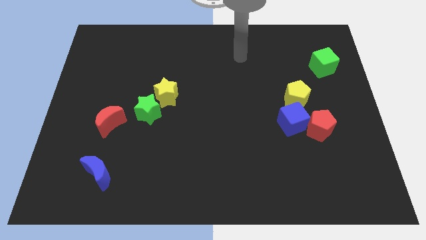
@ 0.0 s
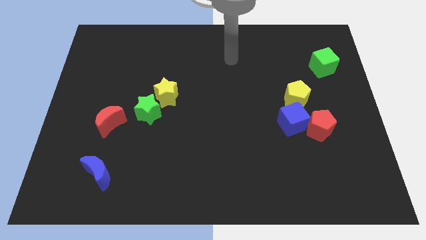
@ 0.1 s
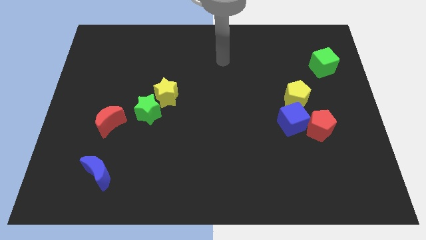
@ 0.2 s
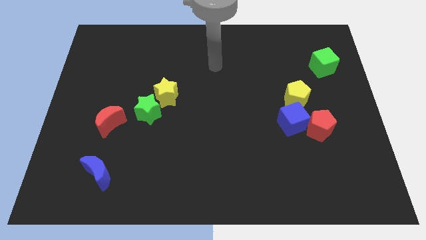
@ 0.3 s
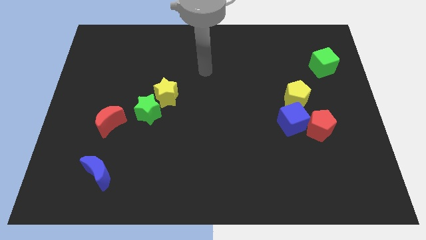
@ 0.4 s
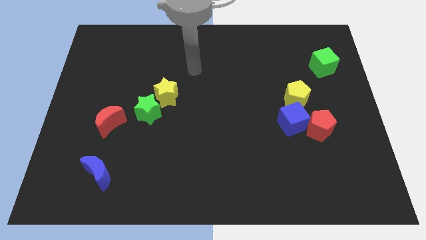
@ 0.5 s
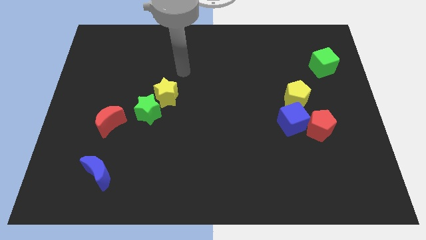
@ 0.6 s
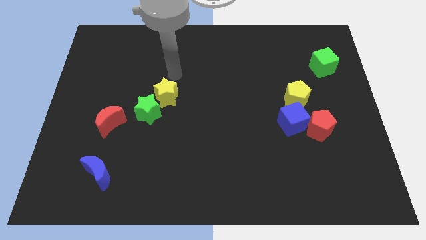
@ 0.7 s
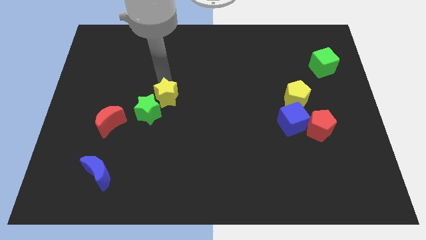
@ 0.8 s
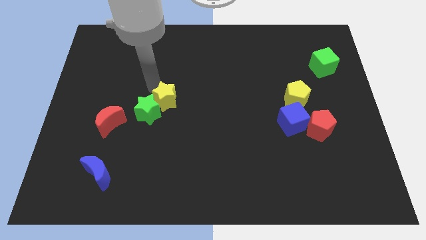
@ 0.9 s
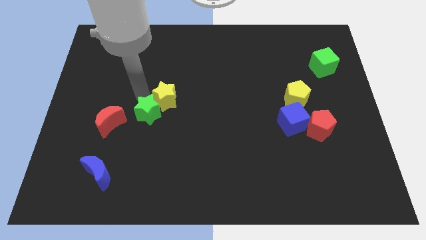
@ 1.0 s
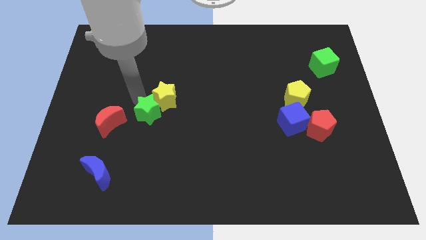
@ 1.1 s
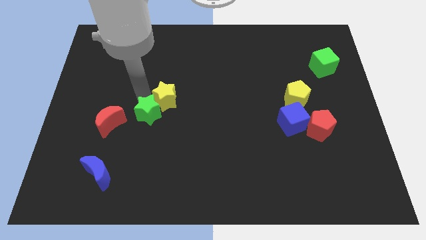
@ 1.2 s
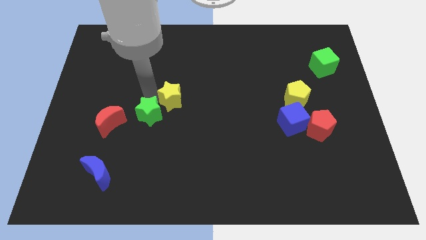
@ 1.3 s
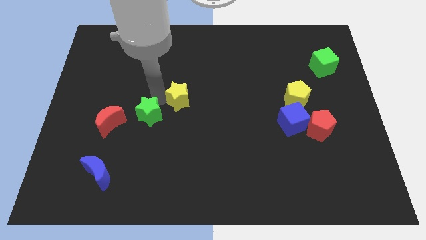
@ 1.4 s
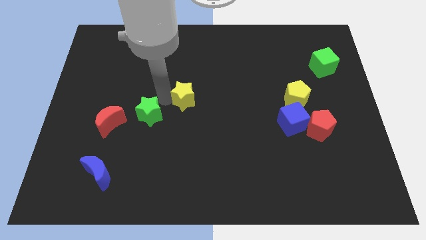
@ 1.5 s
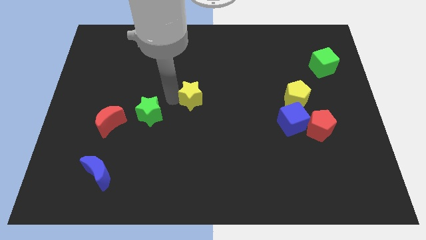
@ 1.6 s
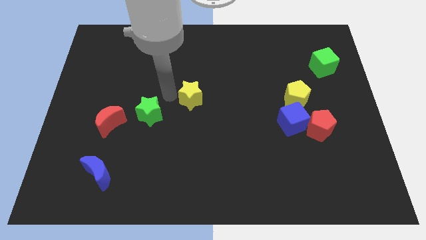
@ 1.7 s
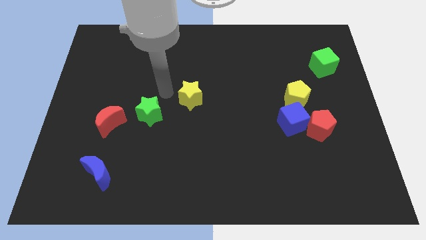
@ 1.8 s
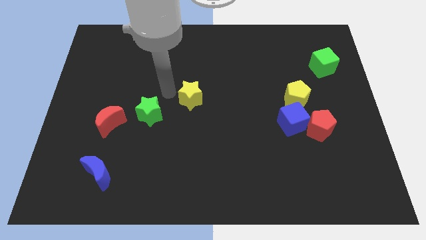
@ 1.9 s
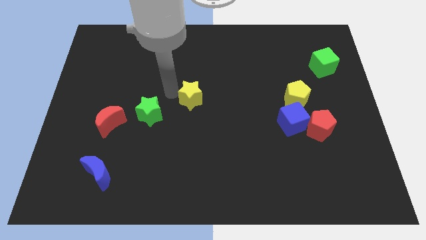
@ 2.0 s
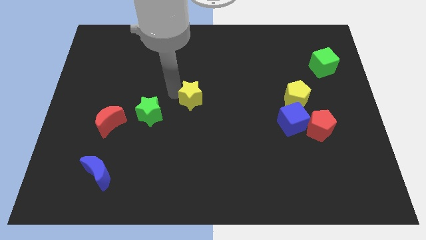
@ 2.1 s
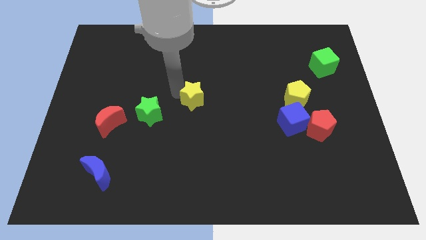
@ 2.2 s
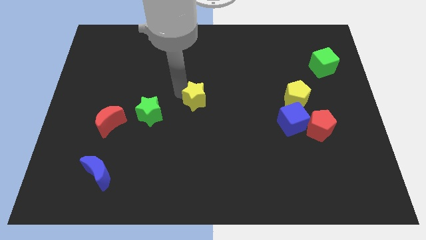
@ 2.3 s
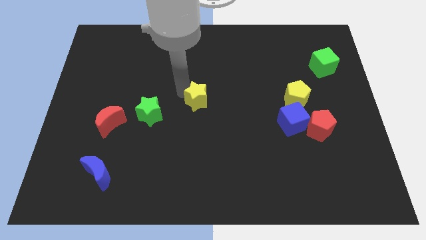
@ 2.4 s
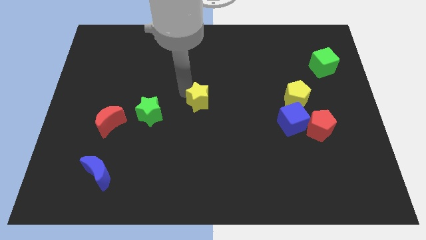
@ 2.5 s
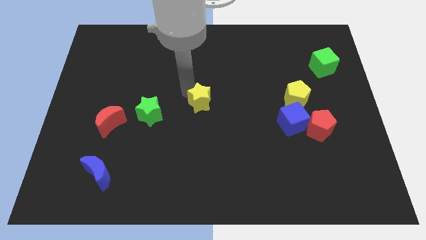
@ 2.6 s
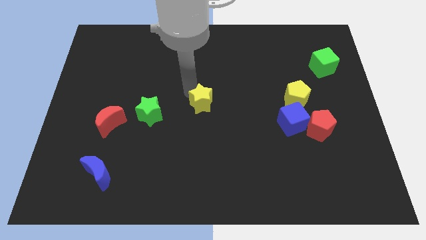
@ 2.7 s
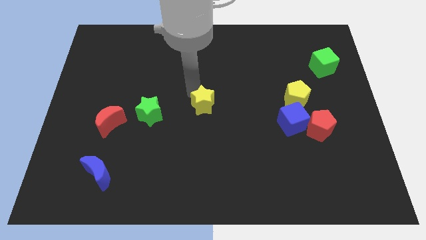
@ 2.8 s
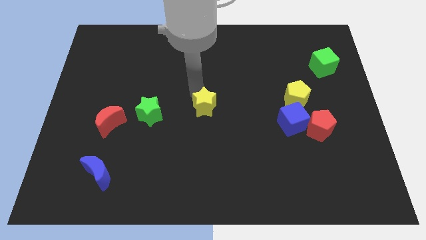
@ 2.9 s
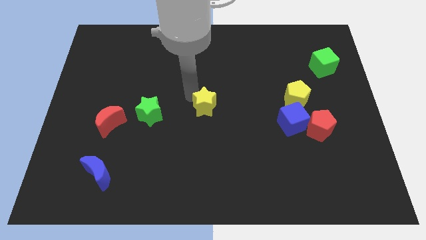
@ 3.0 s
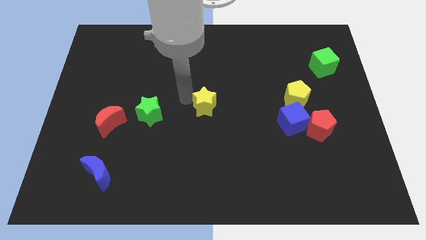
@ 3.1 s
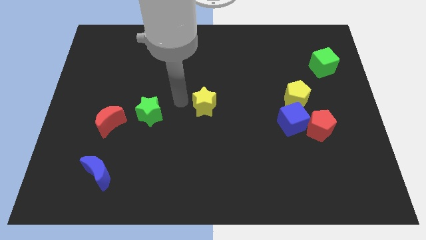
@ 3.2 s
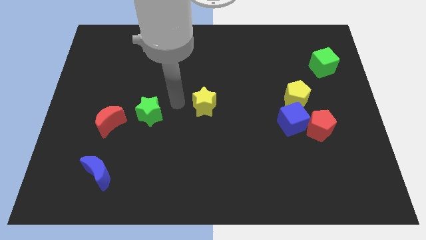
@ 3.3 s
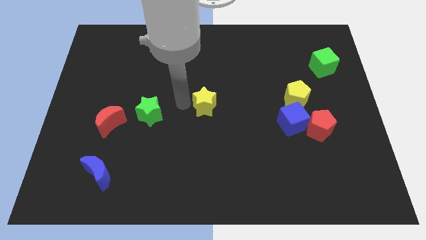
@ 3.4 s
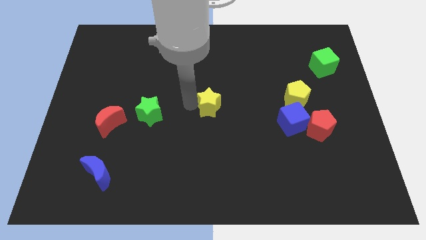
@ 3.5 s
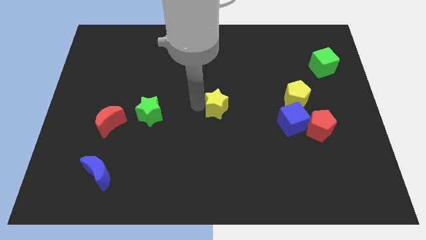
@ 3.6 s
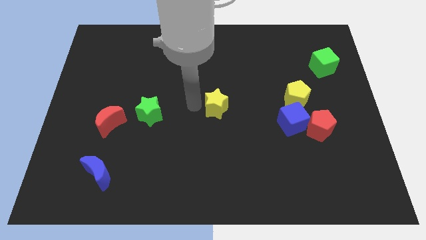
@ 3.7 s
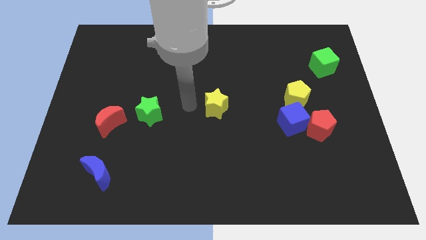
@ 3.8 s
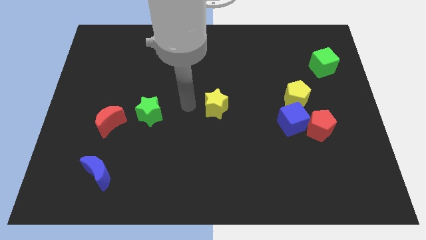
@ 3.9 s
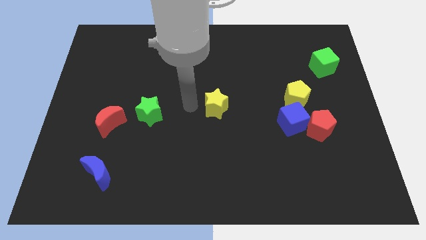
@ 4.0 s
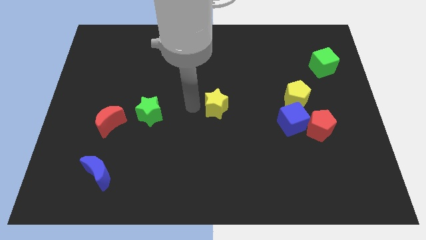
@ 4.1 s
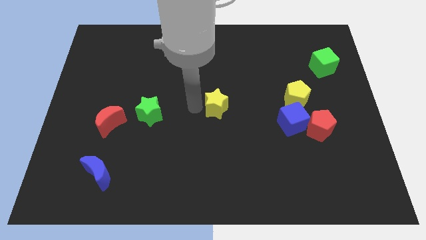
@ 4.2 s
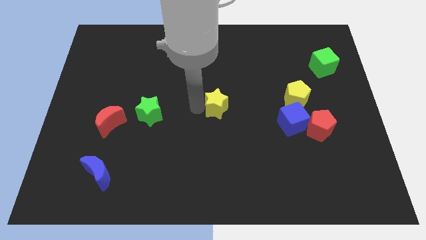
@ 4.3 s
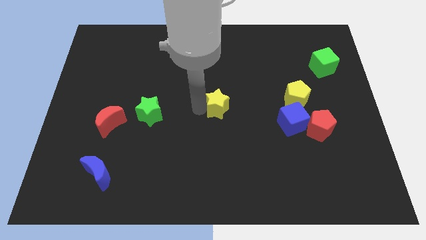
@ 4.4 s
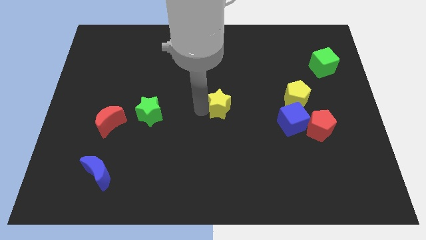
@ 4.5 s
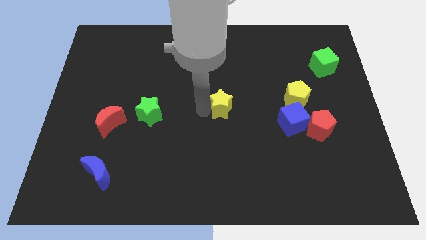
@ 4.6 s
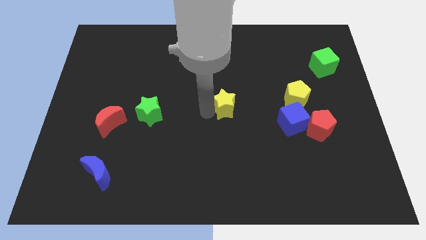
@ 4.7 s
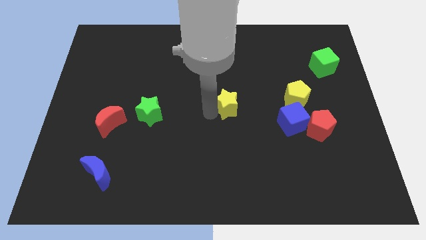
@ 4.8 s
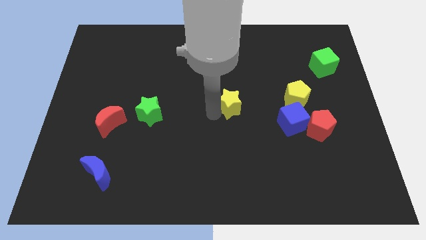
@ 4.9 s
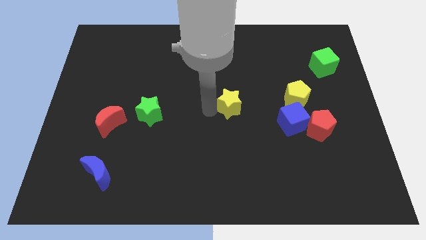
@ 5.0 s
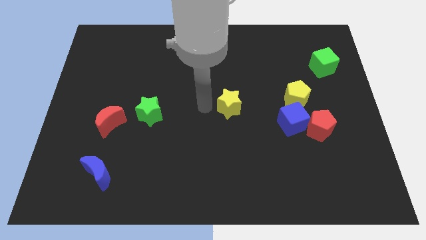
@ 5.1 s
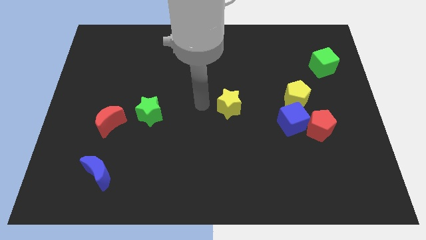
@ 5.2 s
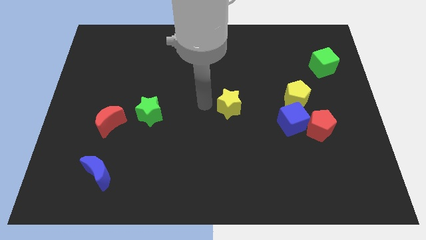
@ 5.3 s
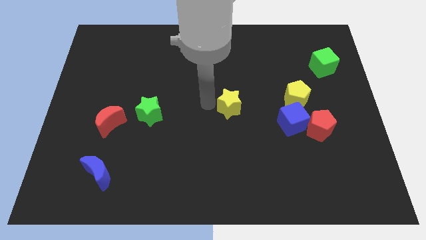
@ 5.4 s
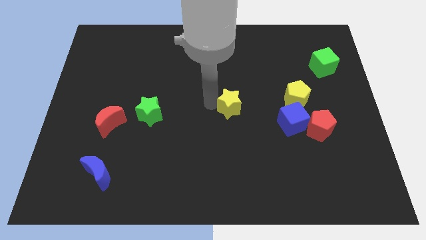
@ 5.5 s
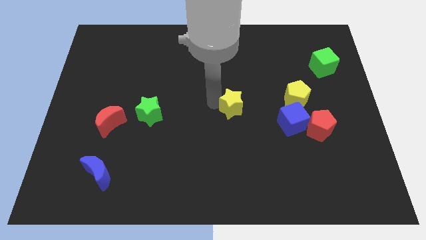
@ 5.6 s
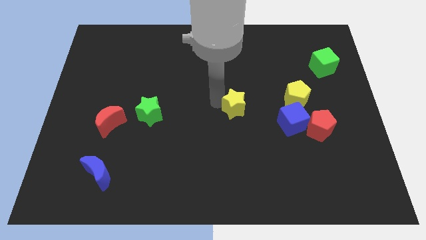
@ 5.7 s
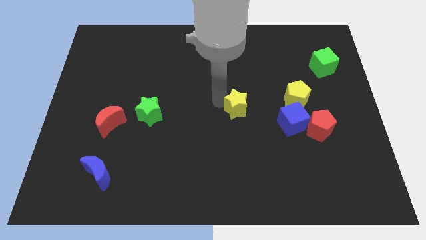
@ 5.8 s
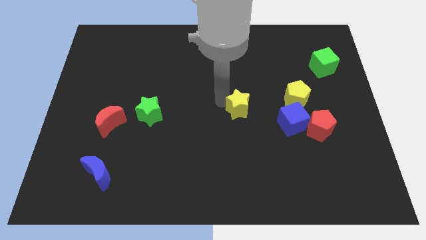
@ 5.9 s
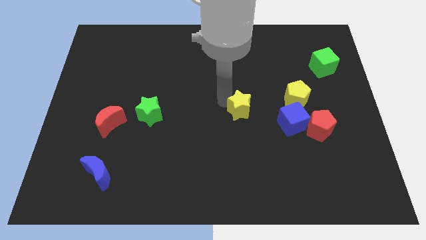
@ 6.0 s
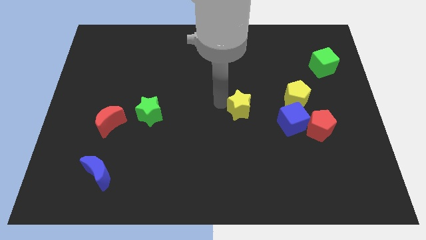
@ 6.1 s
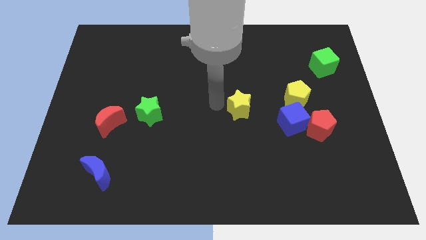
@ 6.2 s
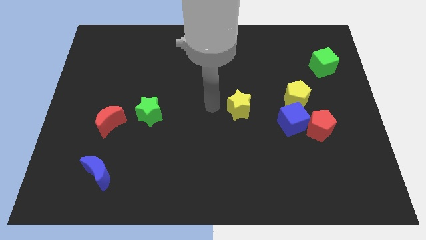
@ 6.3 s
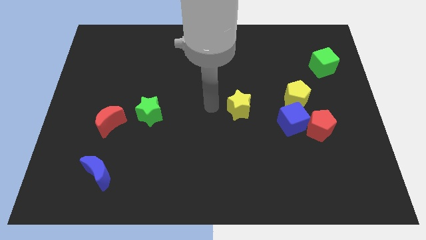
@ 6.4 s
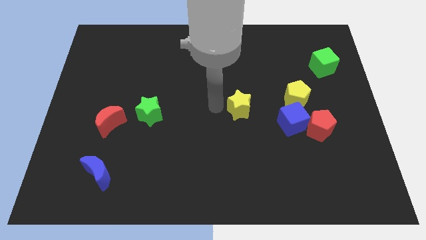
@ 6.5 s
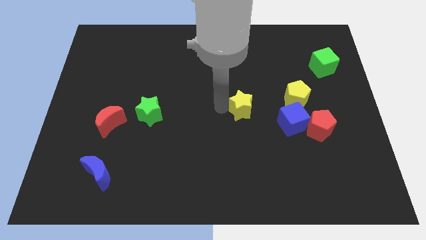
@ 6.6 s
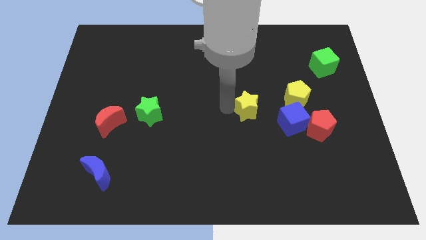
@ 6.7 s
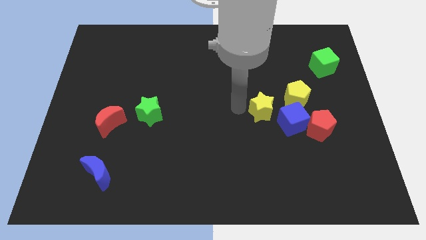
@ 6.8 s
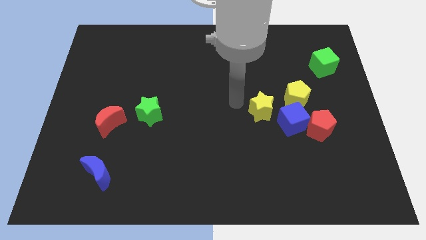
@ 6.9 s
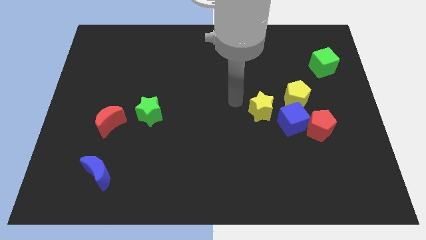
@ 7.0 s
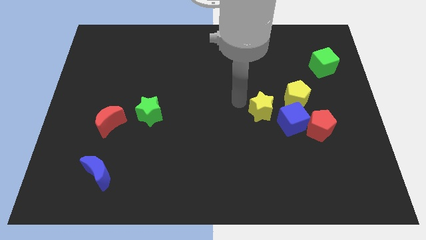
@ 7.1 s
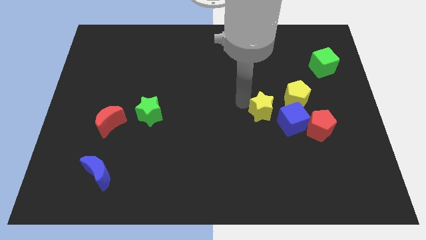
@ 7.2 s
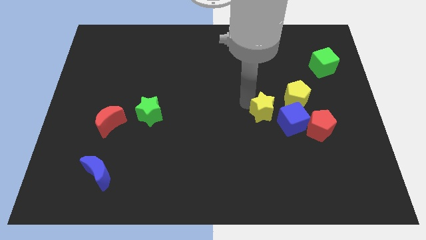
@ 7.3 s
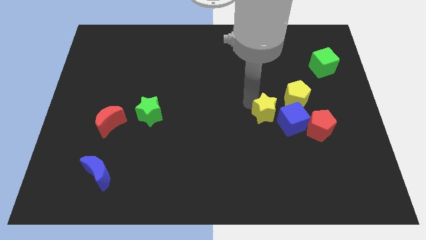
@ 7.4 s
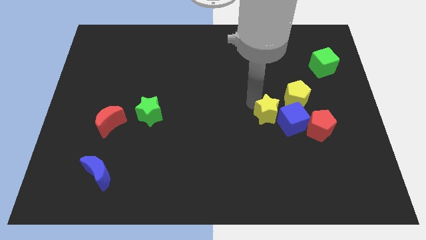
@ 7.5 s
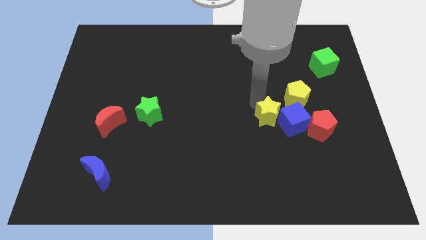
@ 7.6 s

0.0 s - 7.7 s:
move the yellow star towards the blue cube

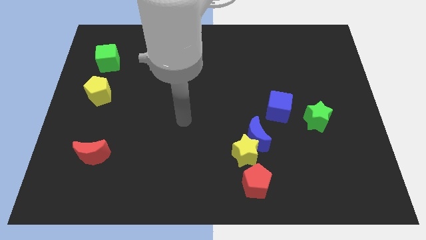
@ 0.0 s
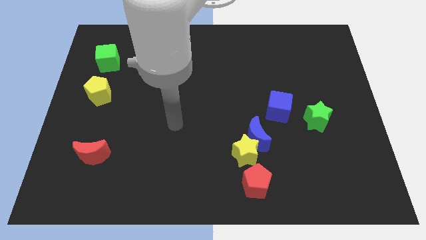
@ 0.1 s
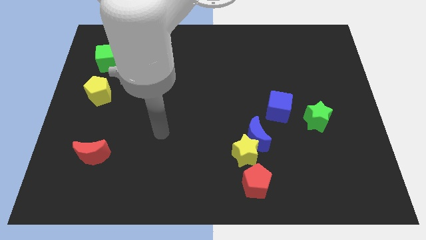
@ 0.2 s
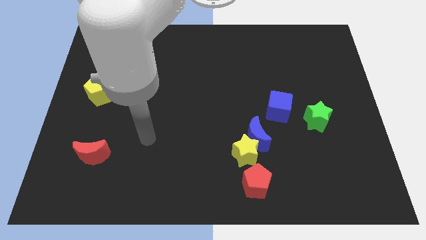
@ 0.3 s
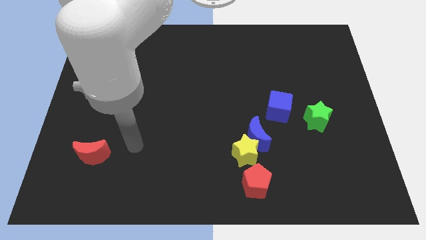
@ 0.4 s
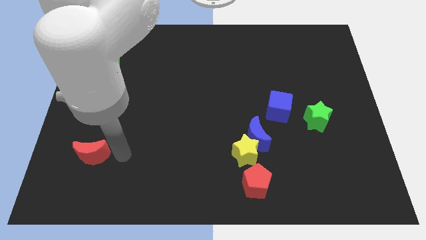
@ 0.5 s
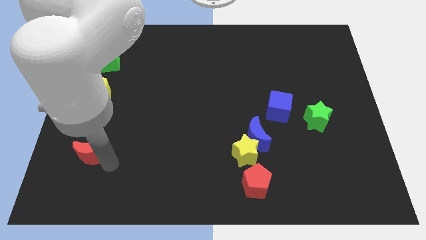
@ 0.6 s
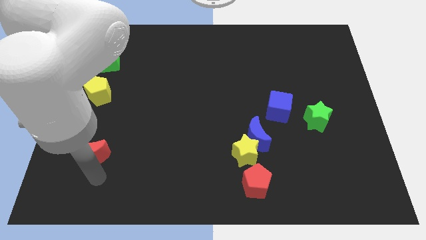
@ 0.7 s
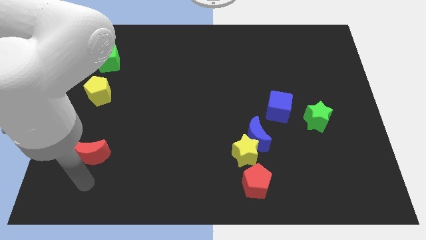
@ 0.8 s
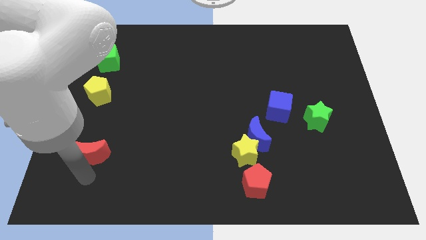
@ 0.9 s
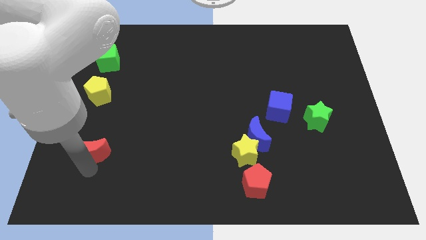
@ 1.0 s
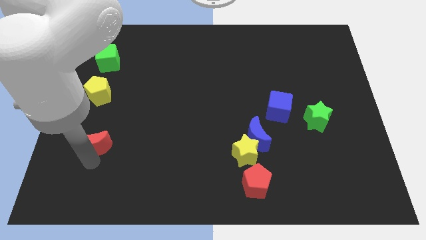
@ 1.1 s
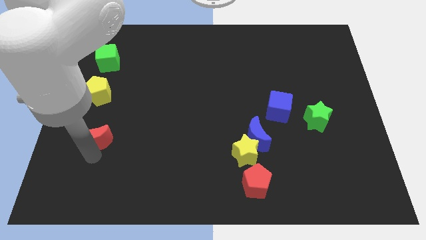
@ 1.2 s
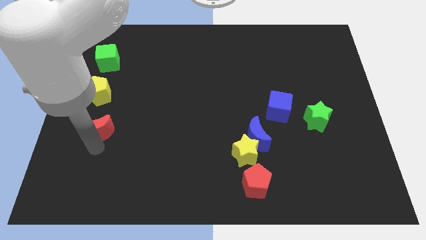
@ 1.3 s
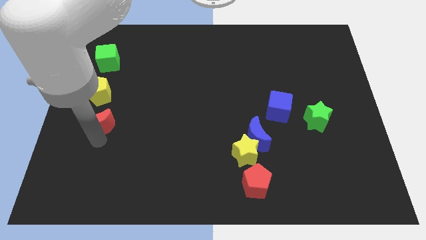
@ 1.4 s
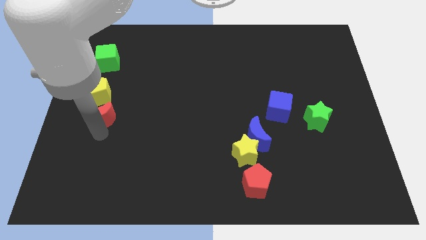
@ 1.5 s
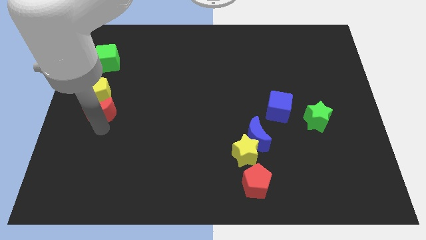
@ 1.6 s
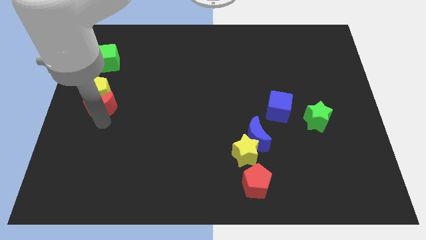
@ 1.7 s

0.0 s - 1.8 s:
push the red moon close to the yellow pentagon
